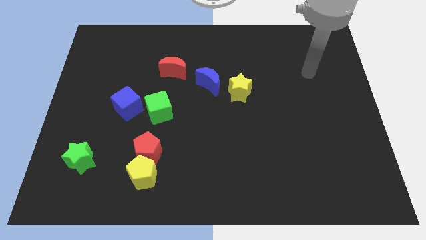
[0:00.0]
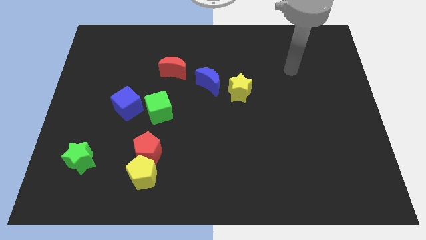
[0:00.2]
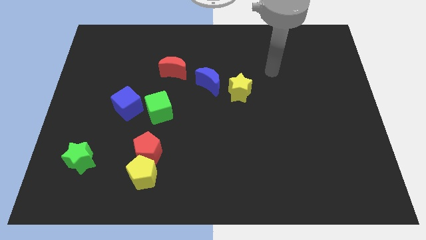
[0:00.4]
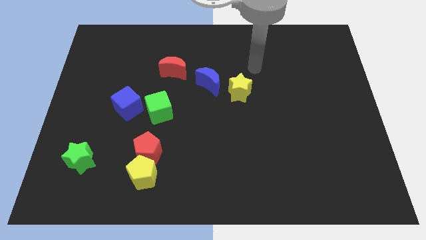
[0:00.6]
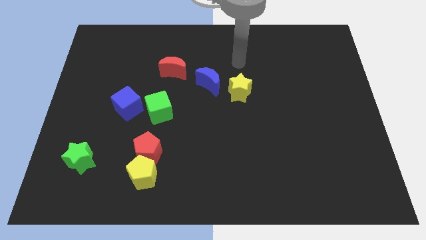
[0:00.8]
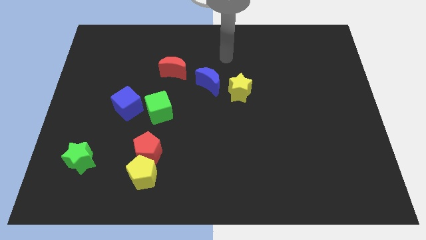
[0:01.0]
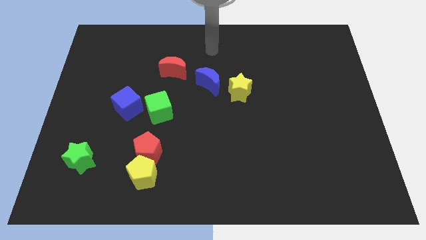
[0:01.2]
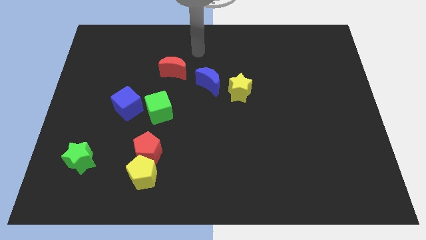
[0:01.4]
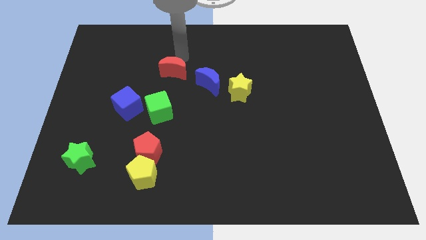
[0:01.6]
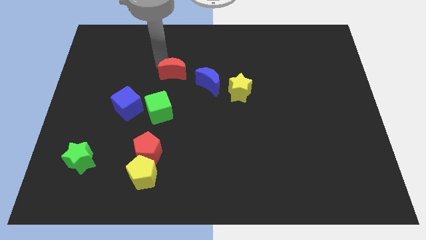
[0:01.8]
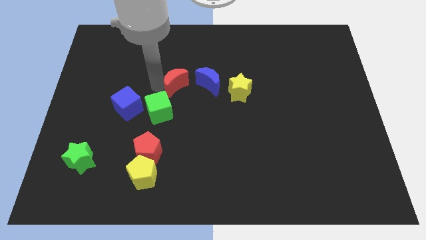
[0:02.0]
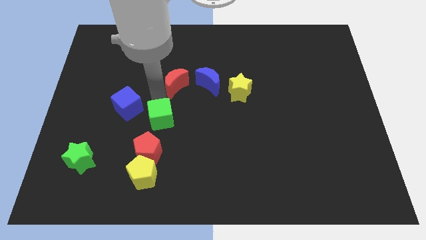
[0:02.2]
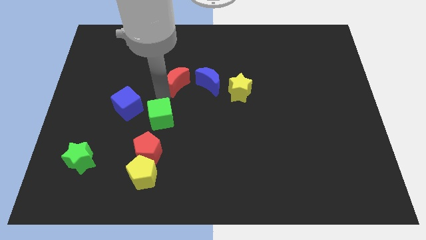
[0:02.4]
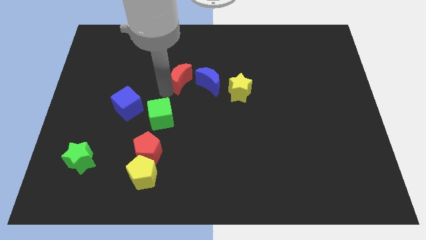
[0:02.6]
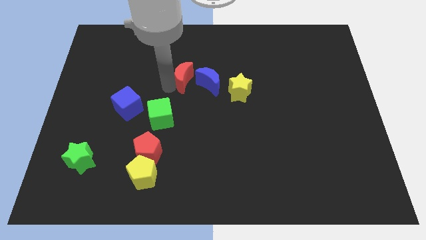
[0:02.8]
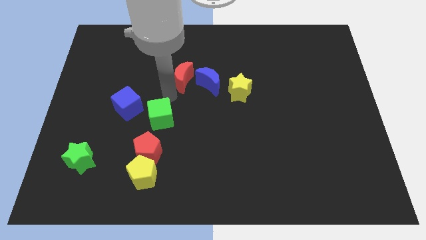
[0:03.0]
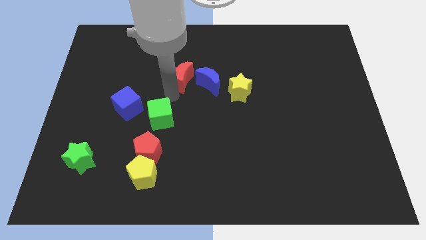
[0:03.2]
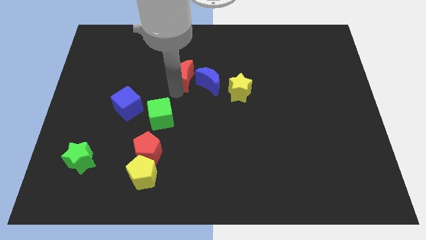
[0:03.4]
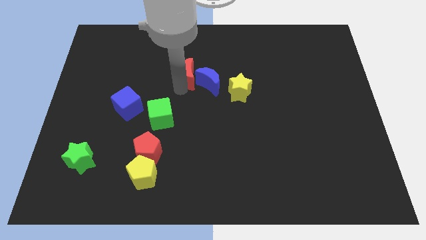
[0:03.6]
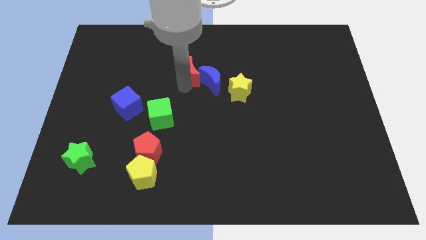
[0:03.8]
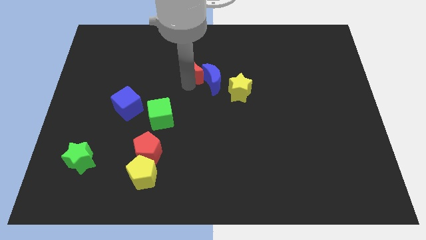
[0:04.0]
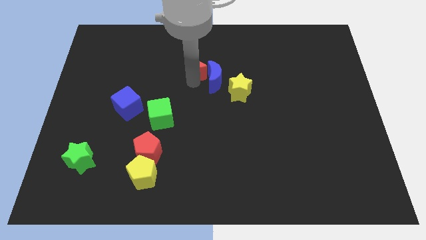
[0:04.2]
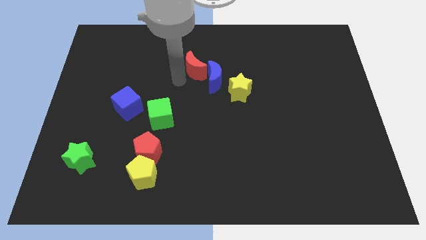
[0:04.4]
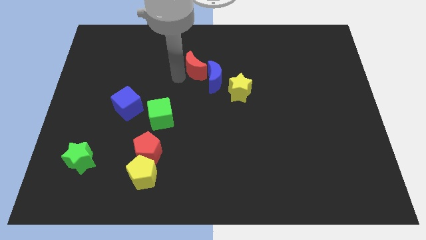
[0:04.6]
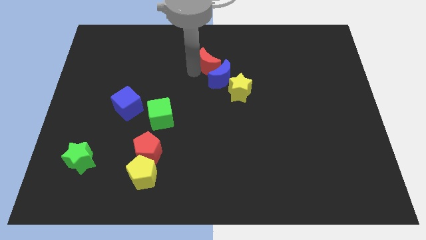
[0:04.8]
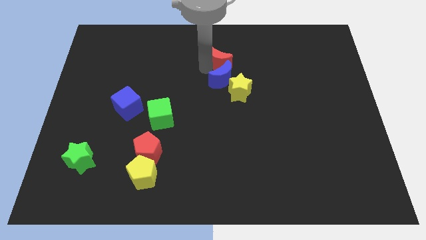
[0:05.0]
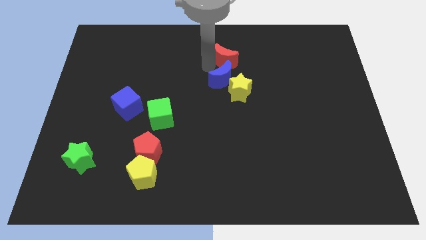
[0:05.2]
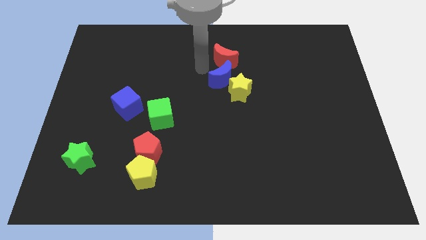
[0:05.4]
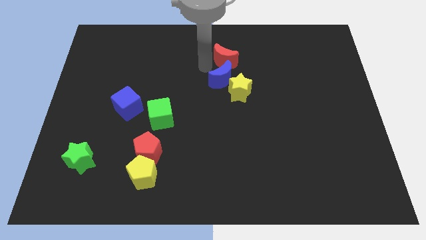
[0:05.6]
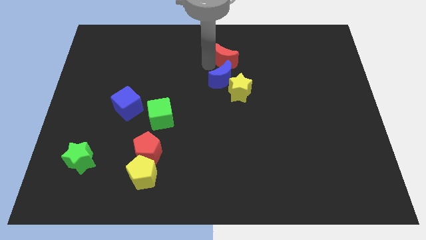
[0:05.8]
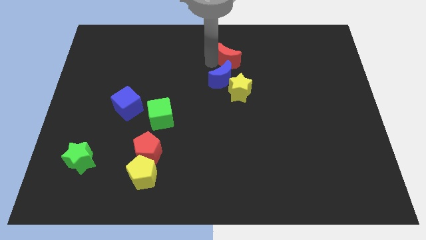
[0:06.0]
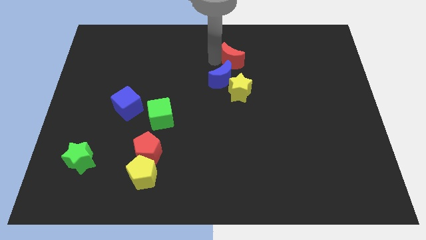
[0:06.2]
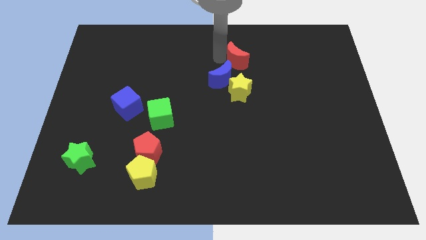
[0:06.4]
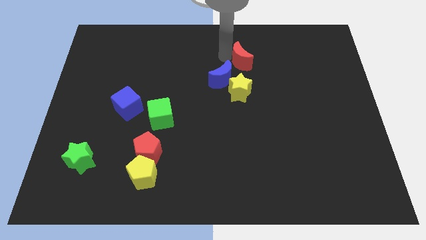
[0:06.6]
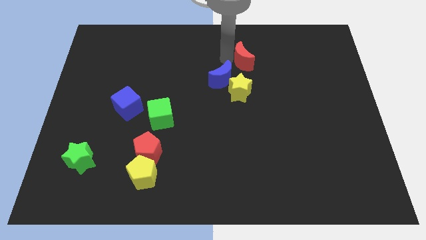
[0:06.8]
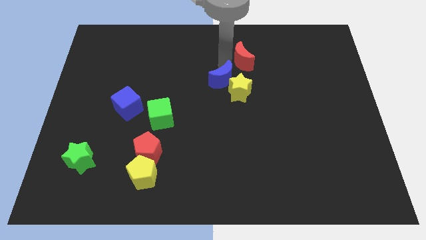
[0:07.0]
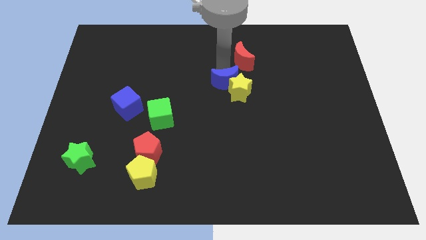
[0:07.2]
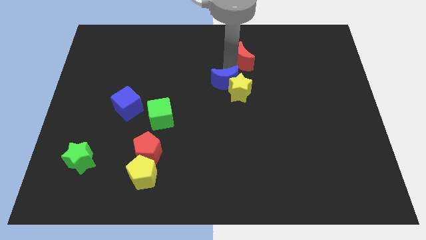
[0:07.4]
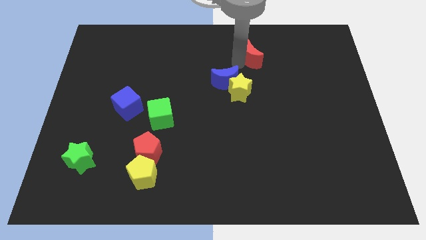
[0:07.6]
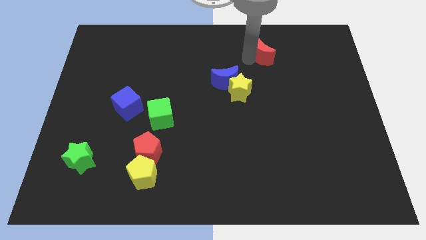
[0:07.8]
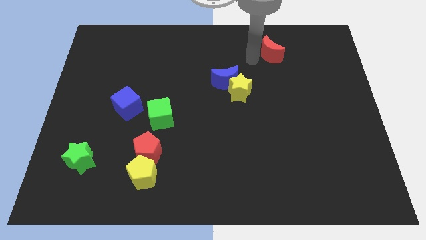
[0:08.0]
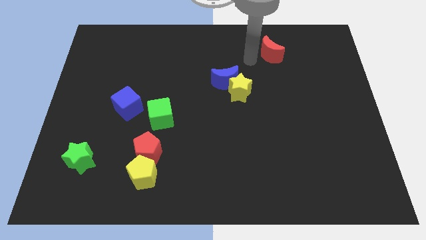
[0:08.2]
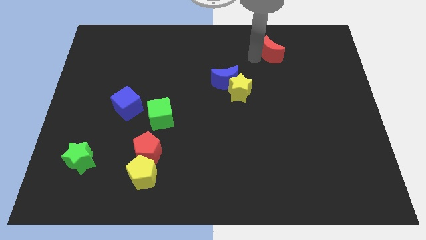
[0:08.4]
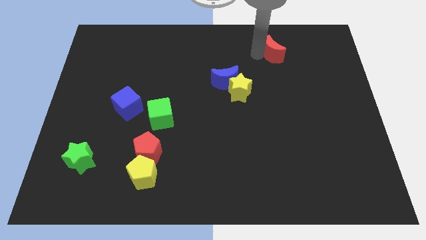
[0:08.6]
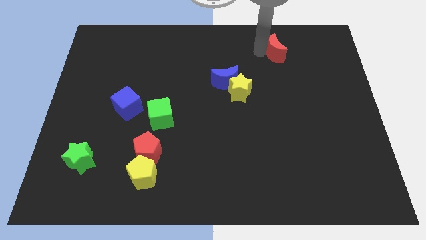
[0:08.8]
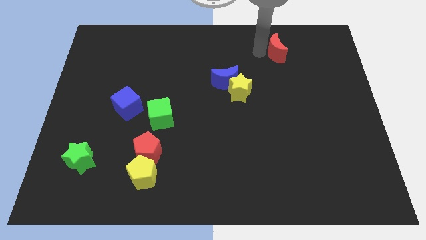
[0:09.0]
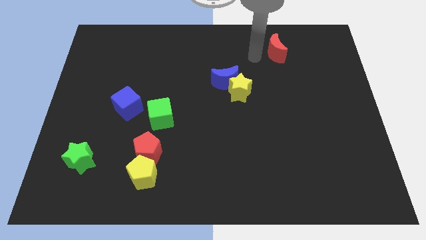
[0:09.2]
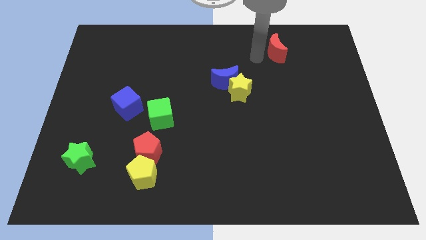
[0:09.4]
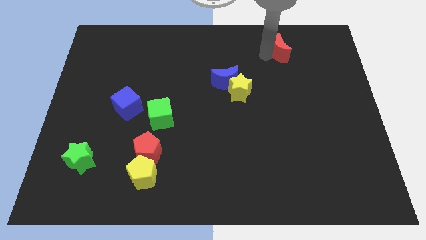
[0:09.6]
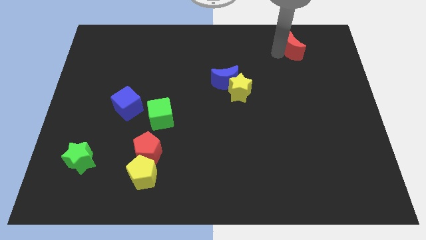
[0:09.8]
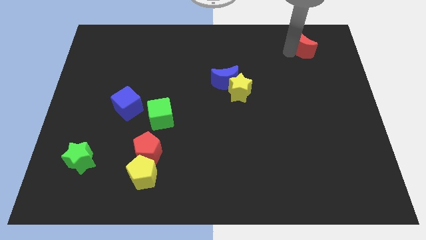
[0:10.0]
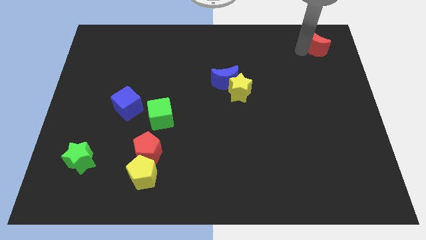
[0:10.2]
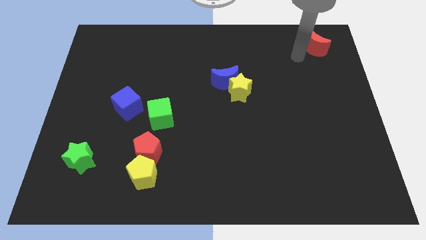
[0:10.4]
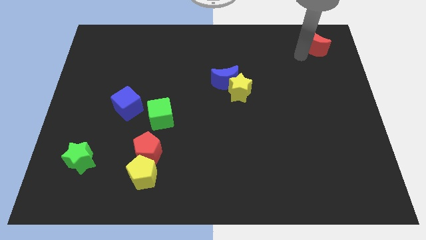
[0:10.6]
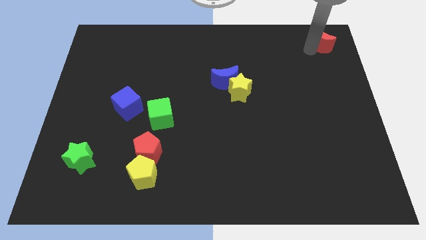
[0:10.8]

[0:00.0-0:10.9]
push the red moon to the top right of the board

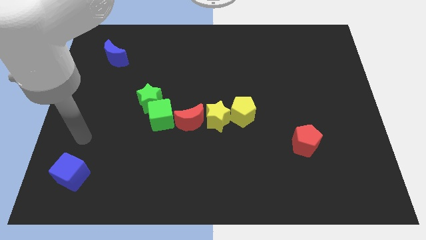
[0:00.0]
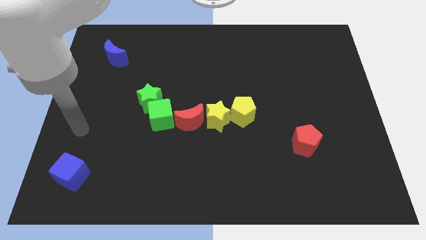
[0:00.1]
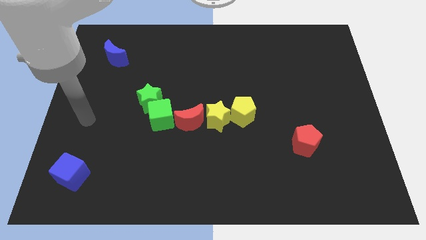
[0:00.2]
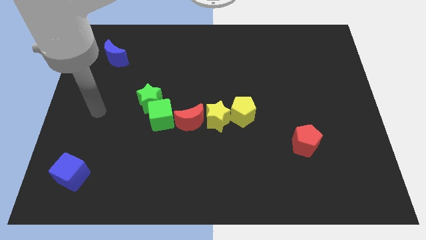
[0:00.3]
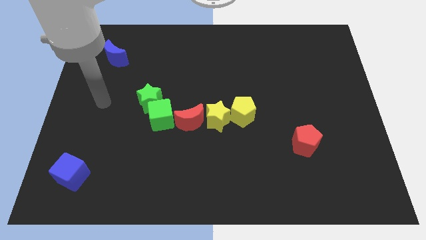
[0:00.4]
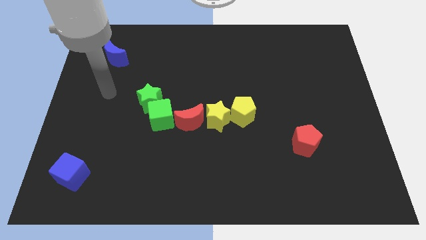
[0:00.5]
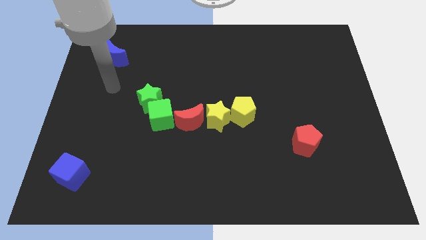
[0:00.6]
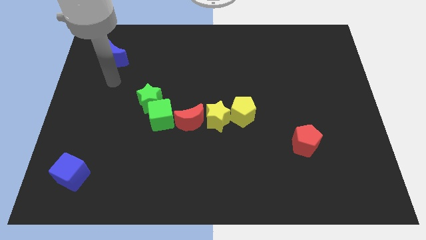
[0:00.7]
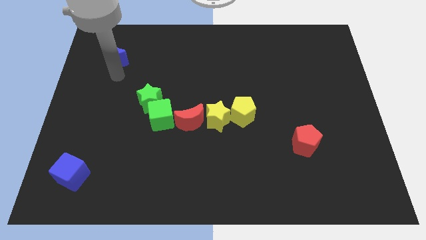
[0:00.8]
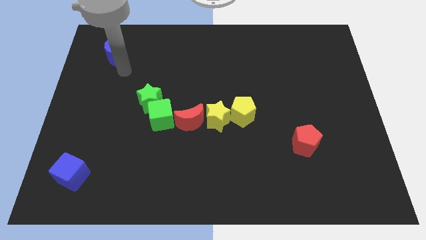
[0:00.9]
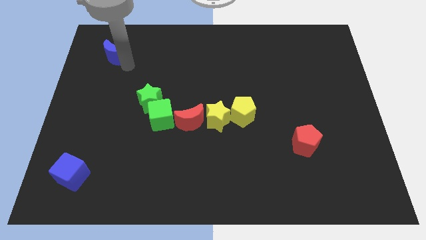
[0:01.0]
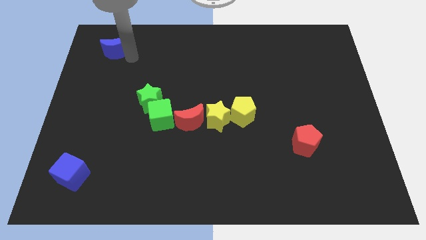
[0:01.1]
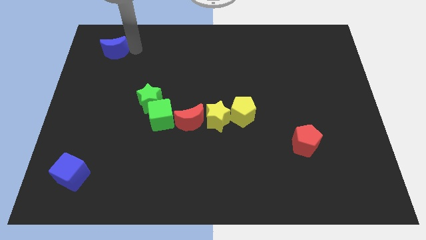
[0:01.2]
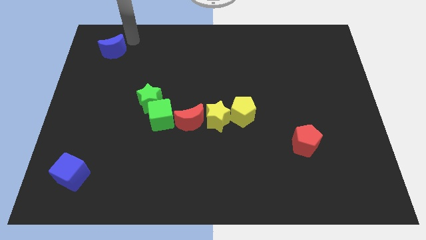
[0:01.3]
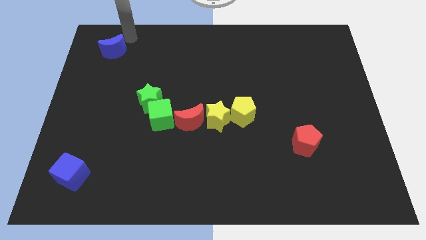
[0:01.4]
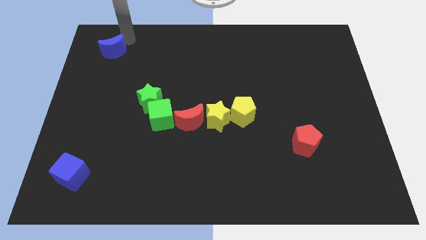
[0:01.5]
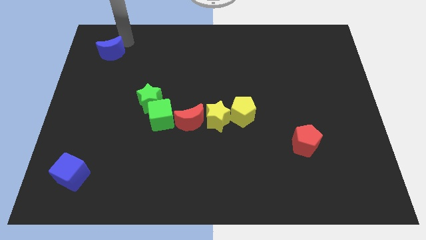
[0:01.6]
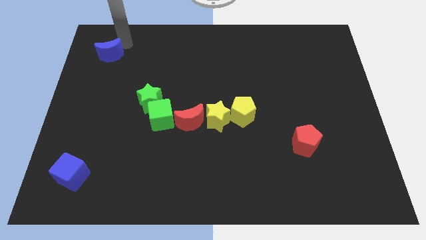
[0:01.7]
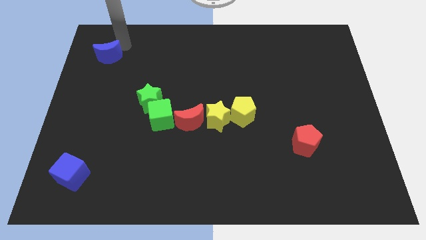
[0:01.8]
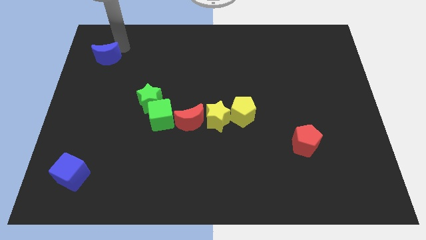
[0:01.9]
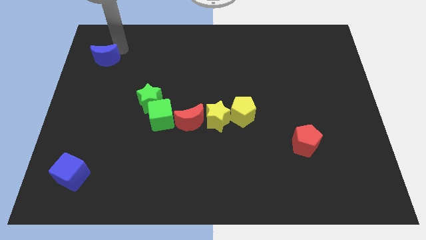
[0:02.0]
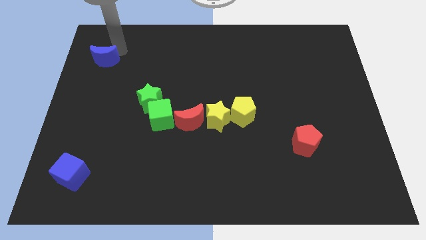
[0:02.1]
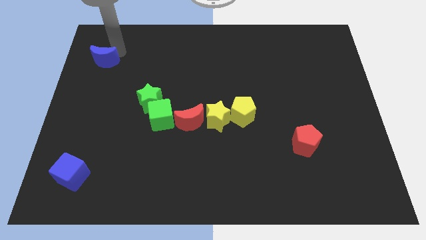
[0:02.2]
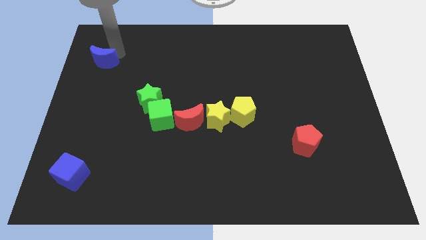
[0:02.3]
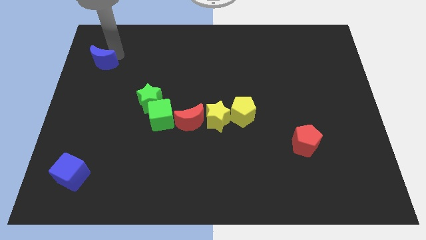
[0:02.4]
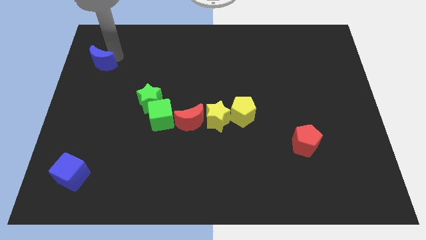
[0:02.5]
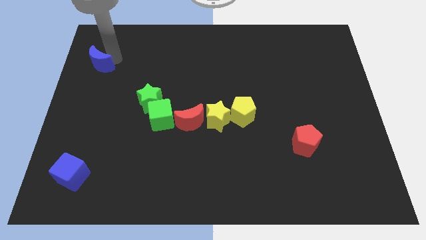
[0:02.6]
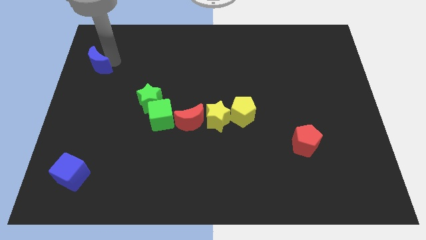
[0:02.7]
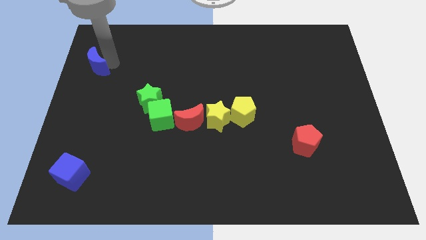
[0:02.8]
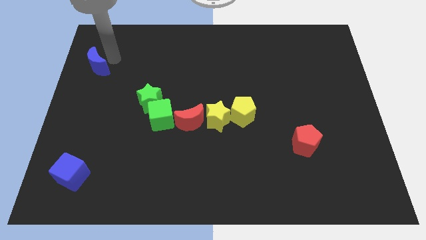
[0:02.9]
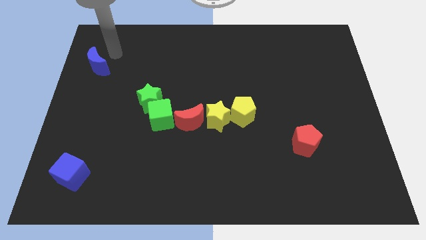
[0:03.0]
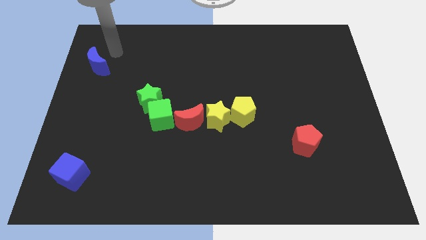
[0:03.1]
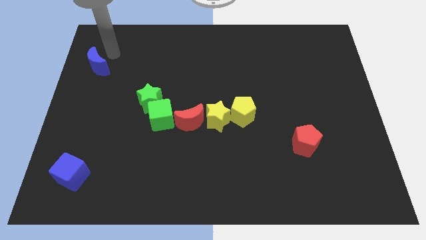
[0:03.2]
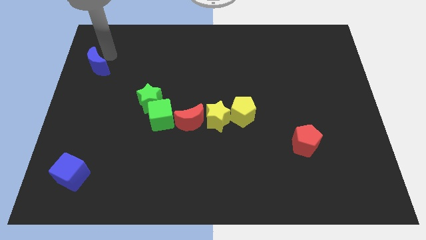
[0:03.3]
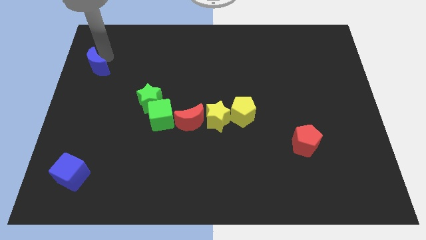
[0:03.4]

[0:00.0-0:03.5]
put the blue moon to the left side of the board
